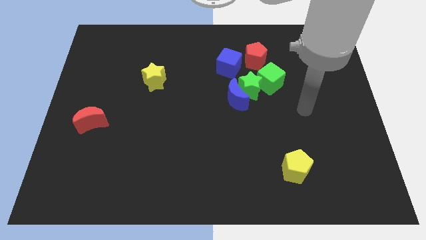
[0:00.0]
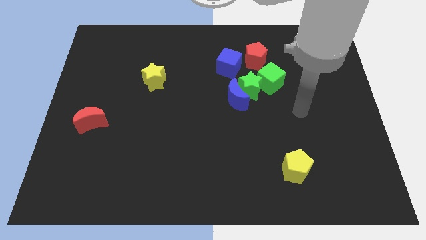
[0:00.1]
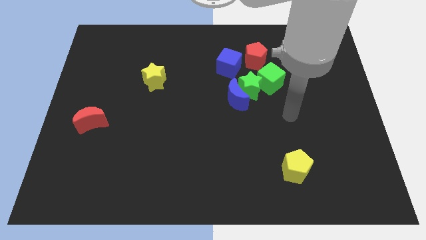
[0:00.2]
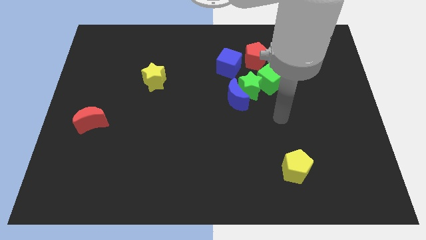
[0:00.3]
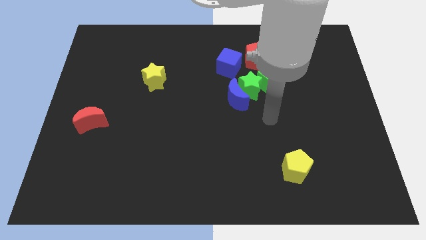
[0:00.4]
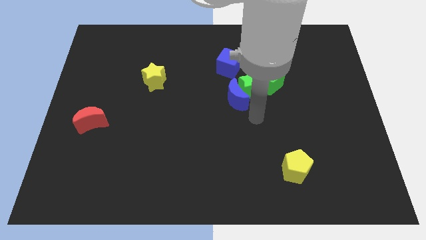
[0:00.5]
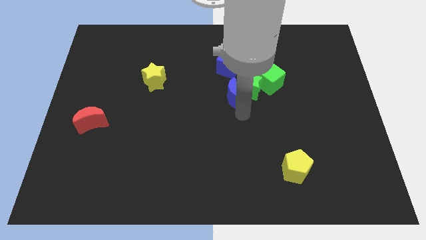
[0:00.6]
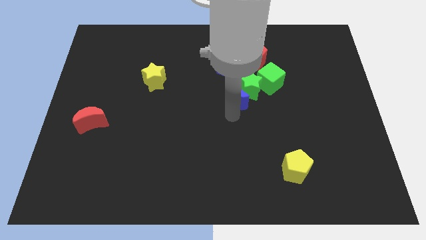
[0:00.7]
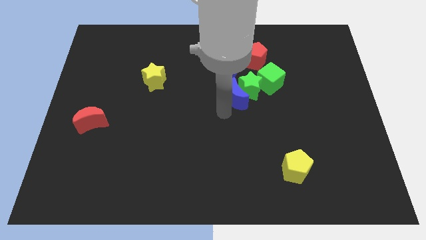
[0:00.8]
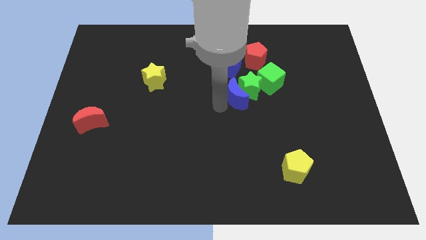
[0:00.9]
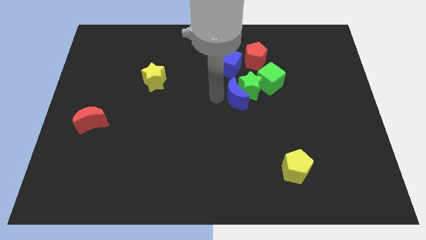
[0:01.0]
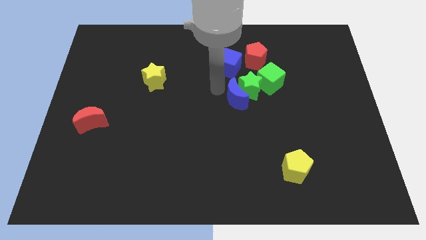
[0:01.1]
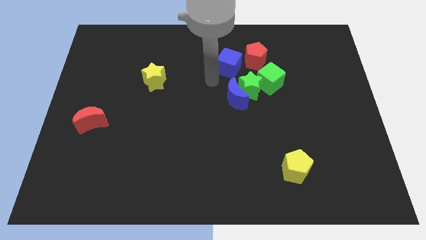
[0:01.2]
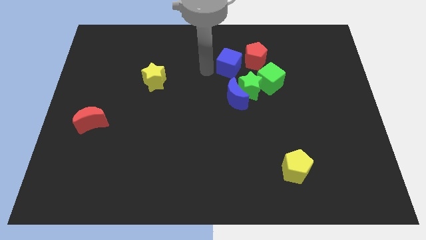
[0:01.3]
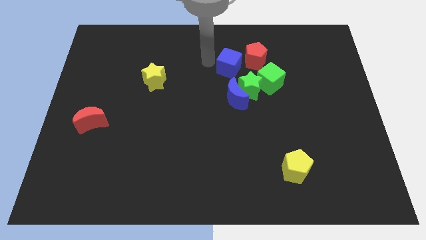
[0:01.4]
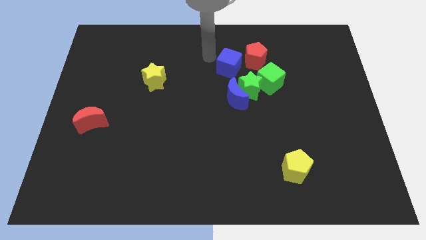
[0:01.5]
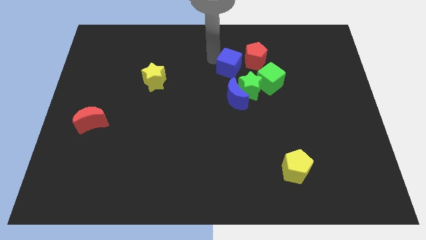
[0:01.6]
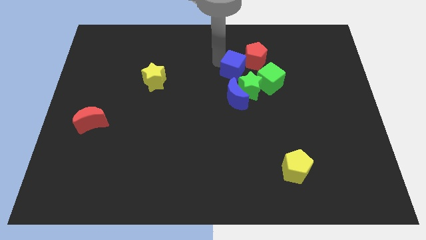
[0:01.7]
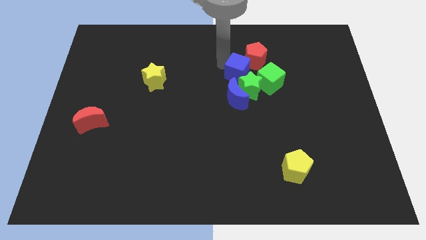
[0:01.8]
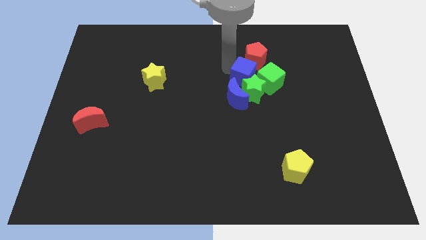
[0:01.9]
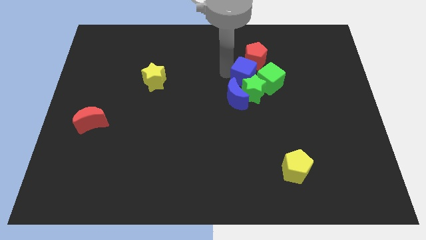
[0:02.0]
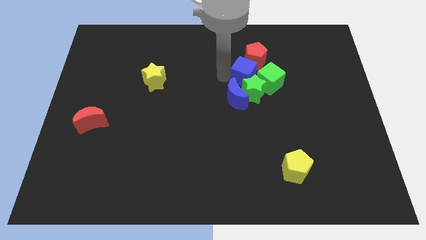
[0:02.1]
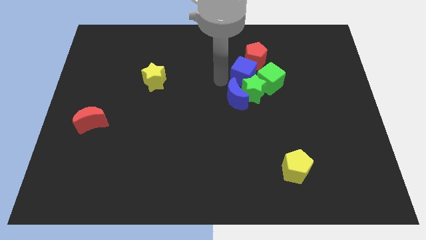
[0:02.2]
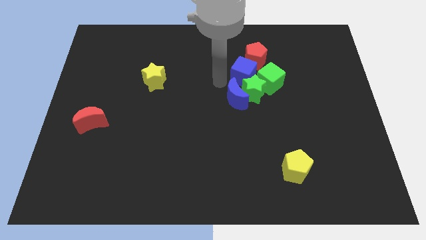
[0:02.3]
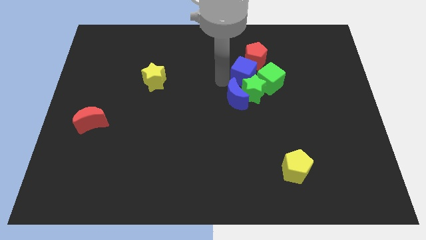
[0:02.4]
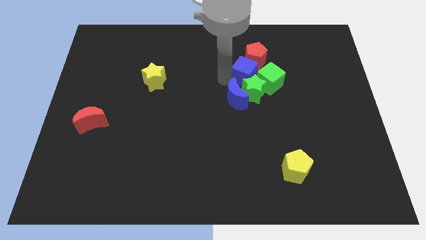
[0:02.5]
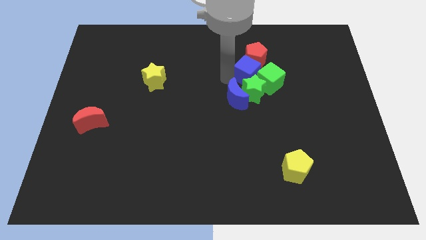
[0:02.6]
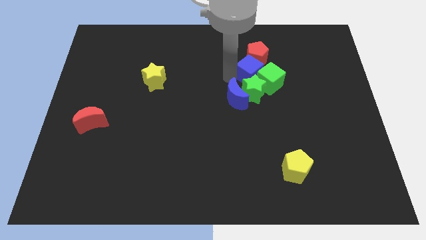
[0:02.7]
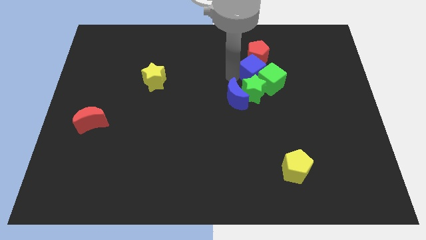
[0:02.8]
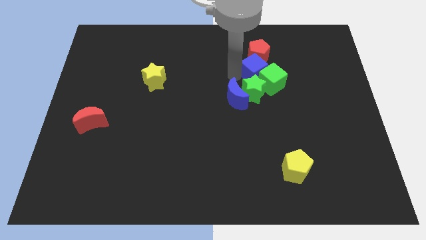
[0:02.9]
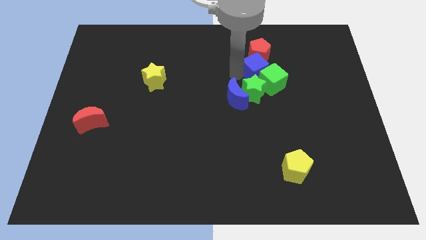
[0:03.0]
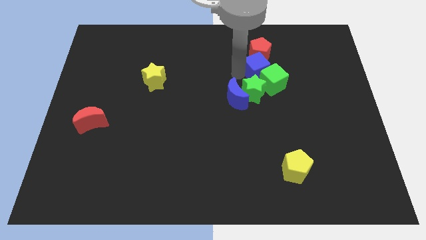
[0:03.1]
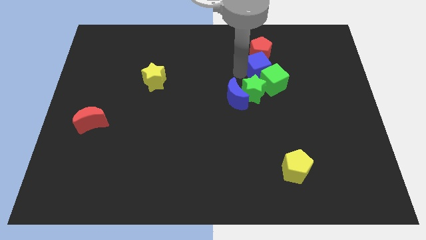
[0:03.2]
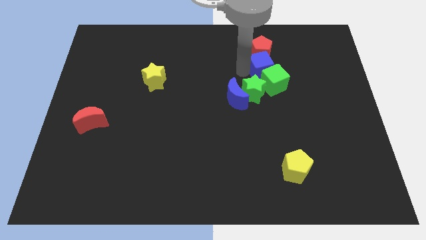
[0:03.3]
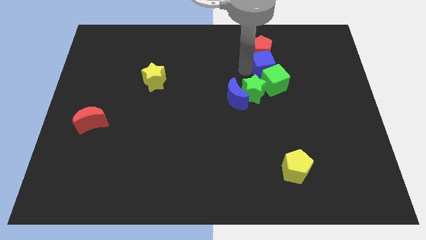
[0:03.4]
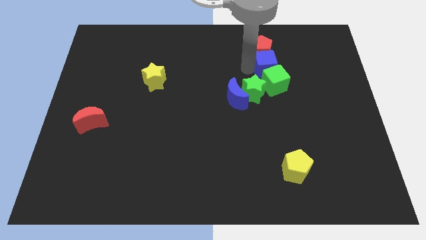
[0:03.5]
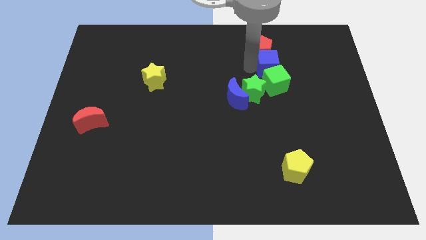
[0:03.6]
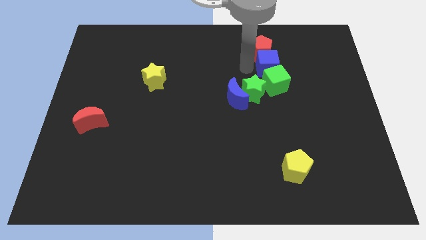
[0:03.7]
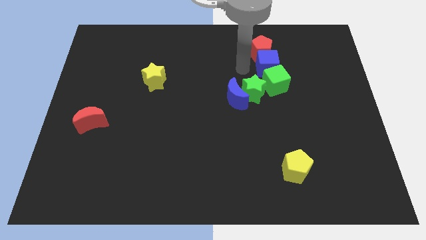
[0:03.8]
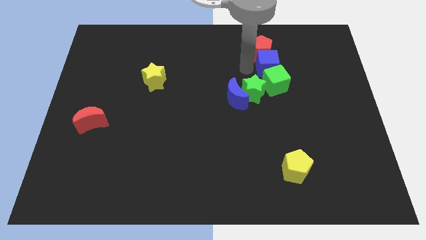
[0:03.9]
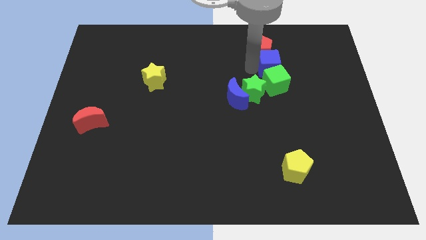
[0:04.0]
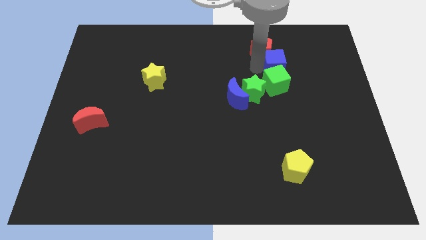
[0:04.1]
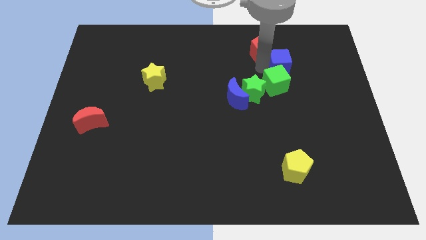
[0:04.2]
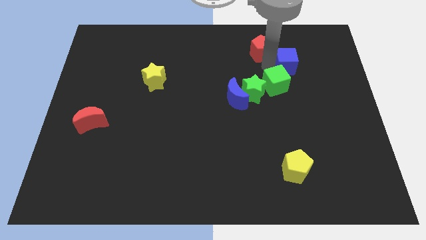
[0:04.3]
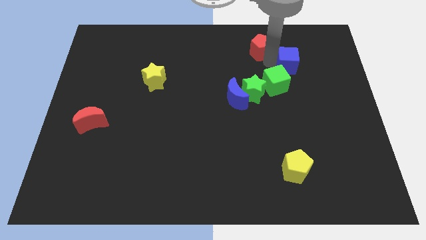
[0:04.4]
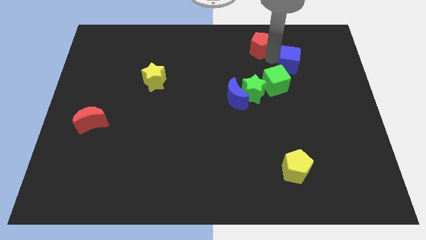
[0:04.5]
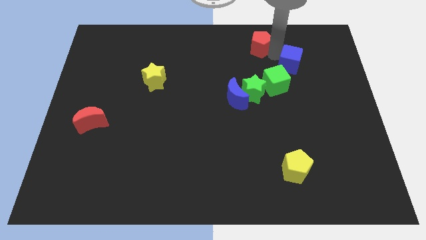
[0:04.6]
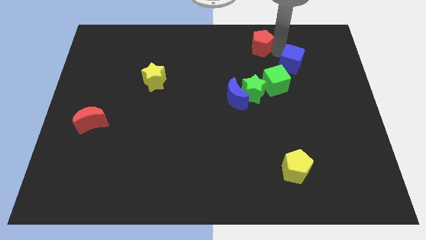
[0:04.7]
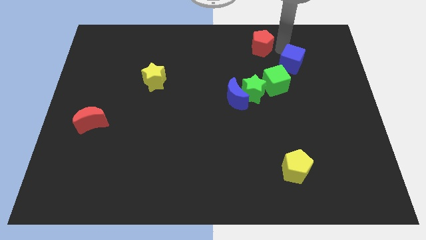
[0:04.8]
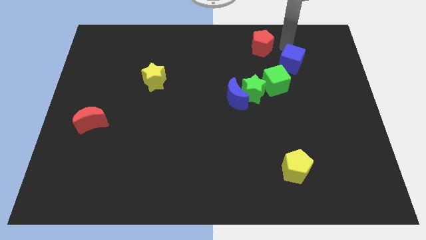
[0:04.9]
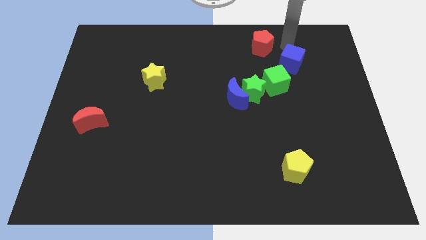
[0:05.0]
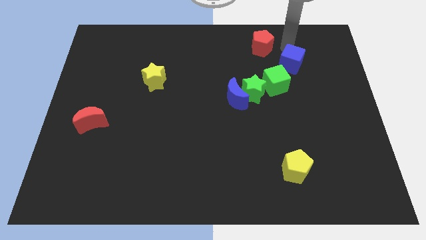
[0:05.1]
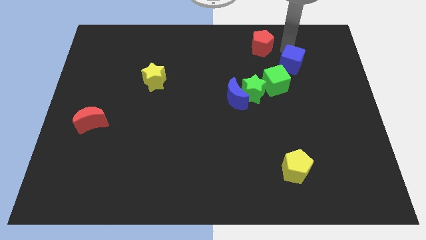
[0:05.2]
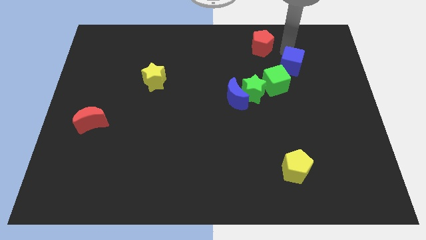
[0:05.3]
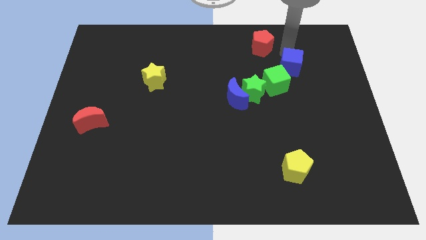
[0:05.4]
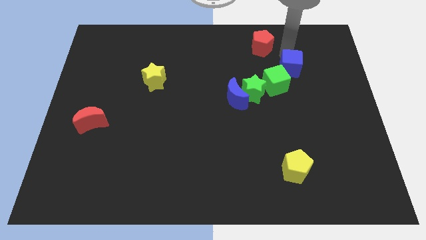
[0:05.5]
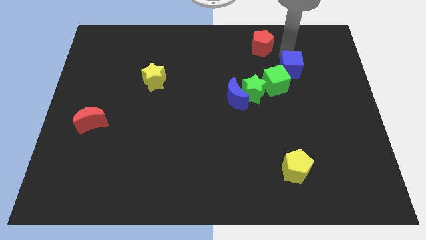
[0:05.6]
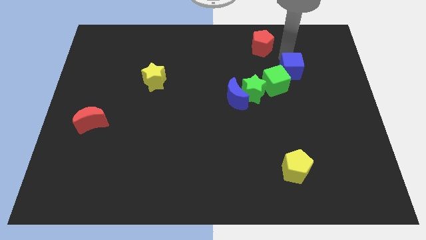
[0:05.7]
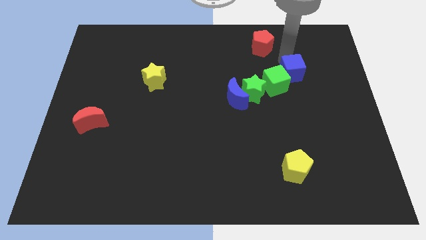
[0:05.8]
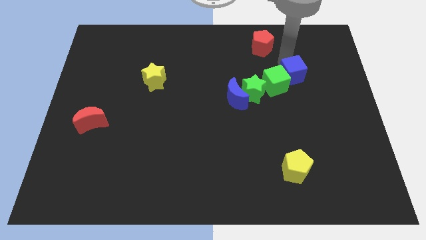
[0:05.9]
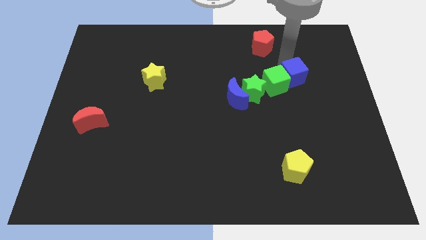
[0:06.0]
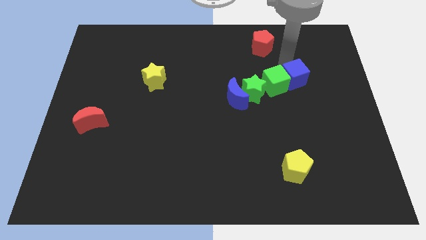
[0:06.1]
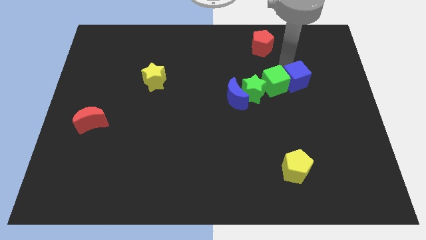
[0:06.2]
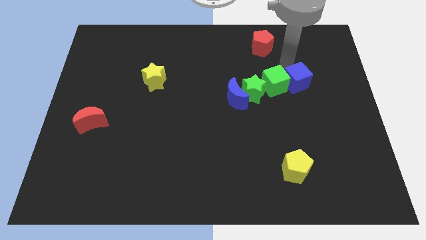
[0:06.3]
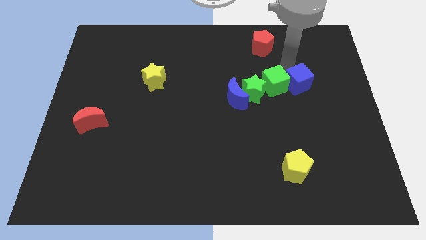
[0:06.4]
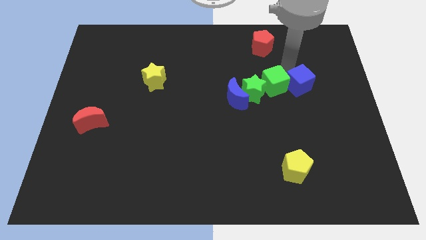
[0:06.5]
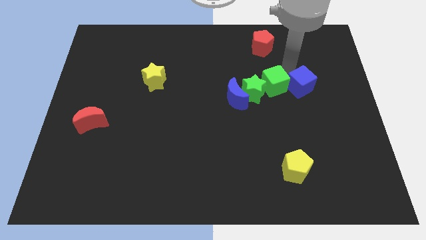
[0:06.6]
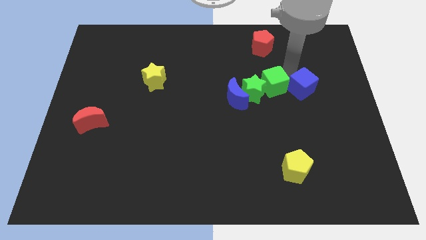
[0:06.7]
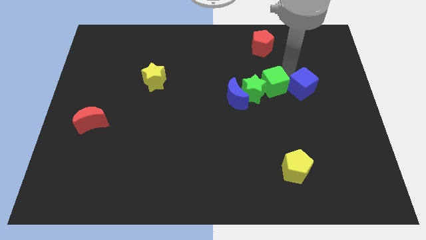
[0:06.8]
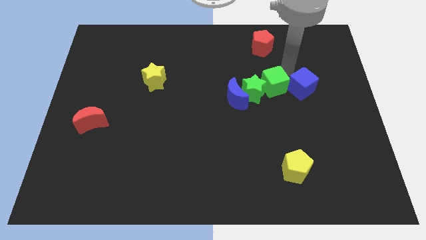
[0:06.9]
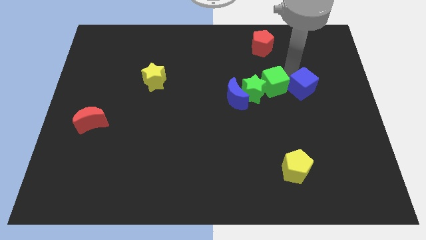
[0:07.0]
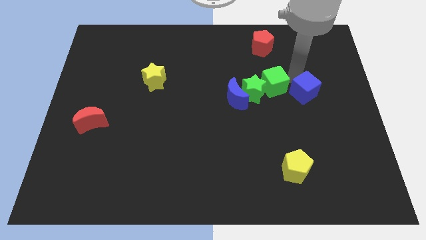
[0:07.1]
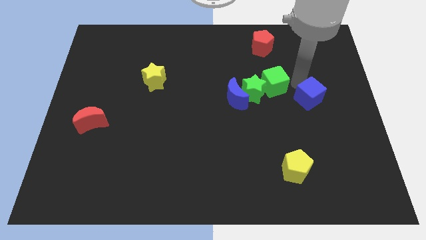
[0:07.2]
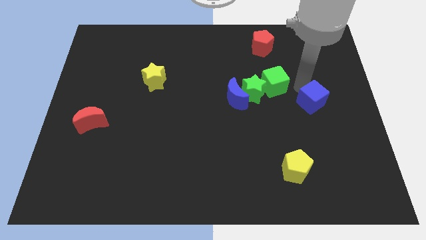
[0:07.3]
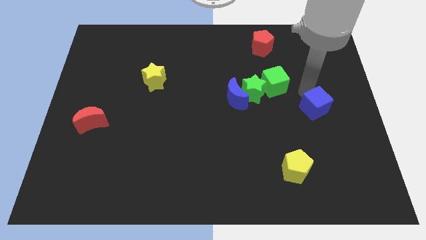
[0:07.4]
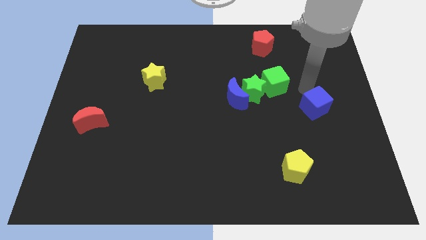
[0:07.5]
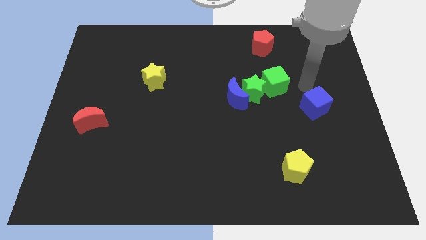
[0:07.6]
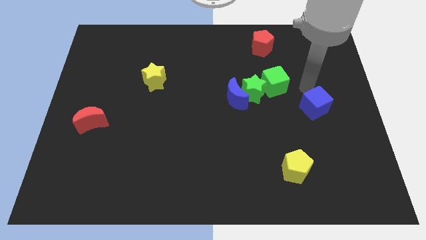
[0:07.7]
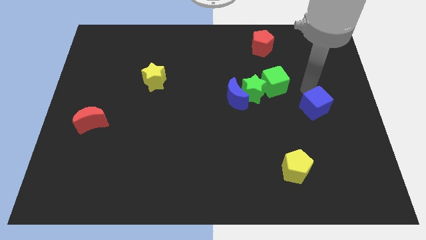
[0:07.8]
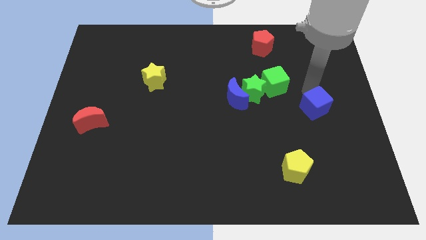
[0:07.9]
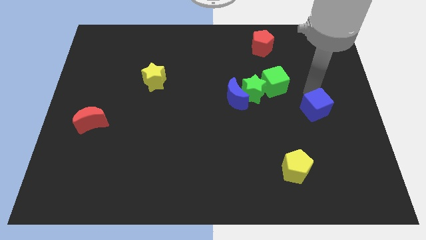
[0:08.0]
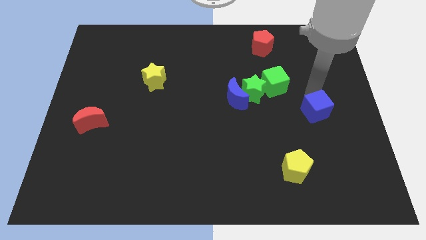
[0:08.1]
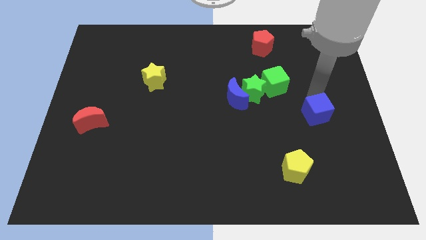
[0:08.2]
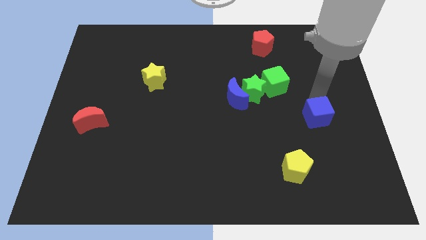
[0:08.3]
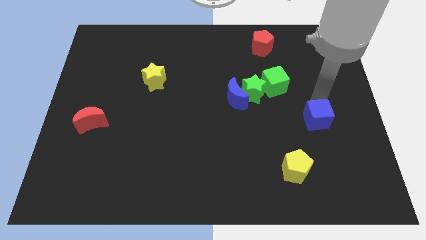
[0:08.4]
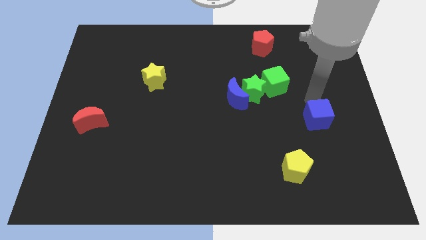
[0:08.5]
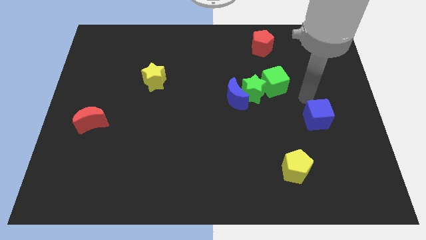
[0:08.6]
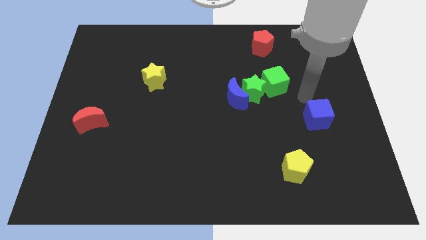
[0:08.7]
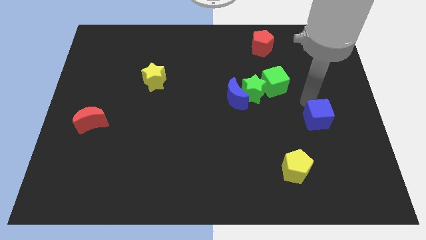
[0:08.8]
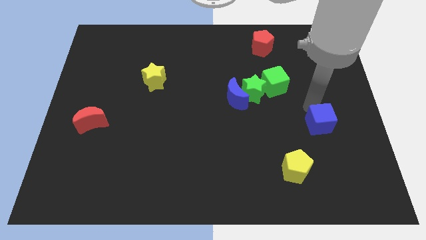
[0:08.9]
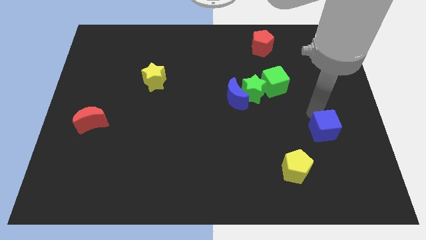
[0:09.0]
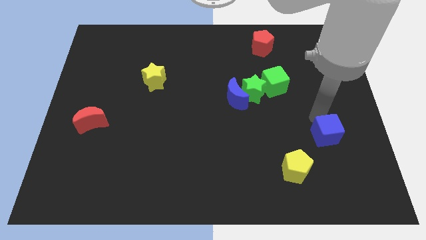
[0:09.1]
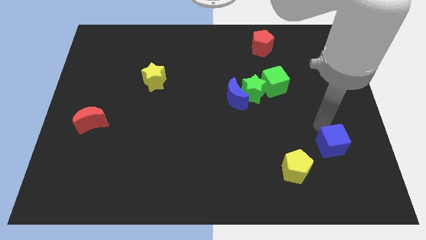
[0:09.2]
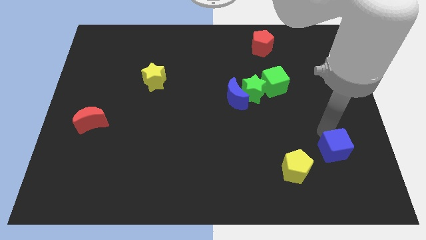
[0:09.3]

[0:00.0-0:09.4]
push the blue cube to the right side of the yellow pentagon
